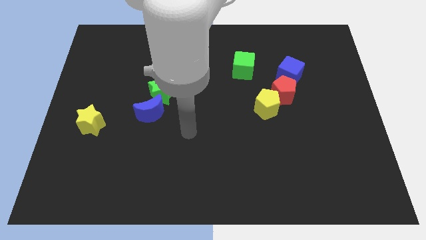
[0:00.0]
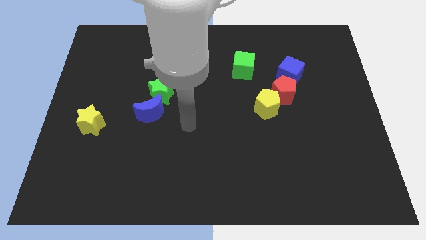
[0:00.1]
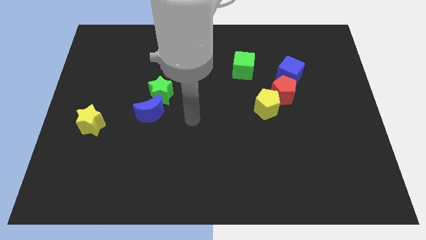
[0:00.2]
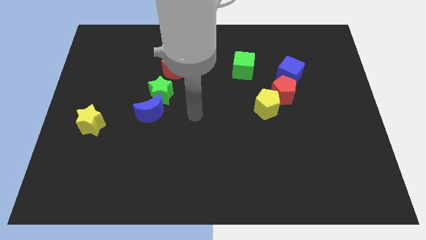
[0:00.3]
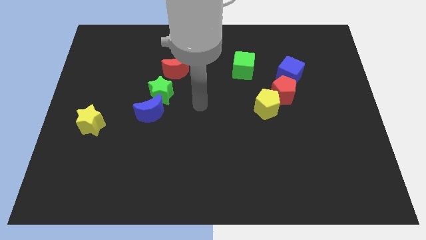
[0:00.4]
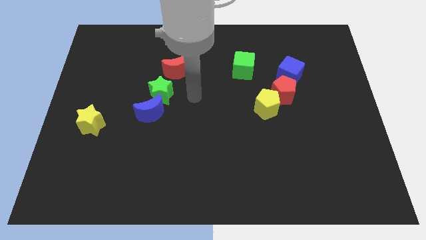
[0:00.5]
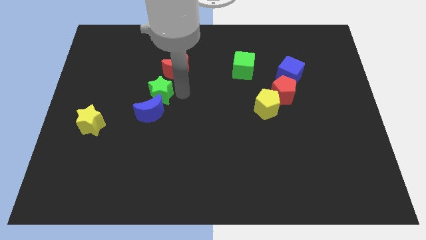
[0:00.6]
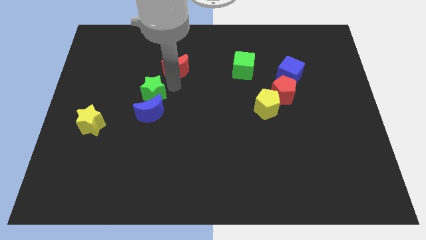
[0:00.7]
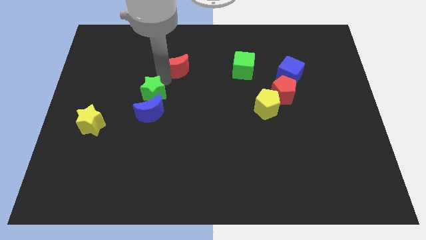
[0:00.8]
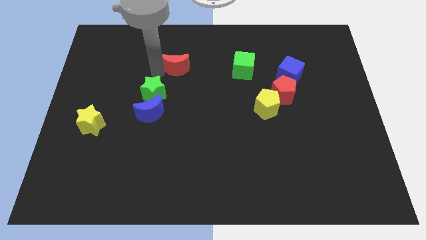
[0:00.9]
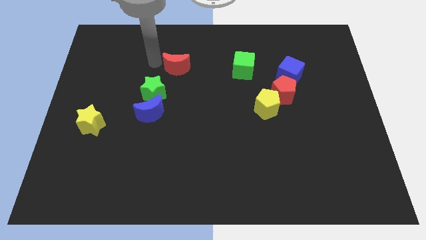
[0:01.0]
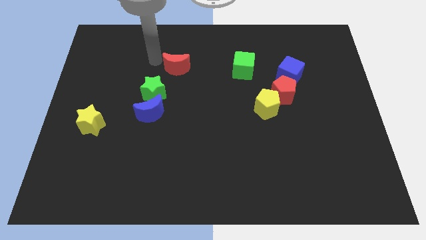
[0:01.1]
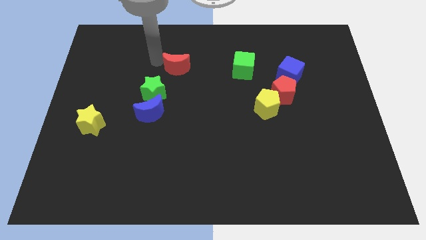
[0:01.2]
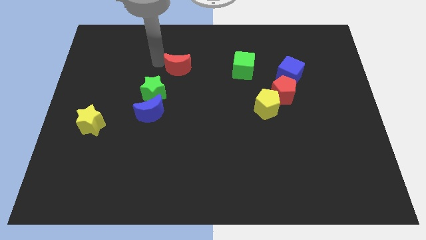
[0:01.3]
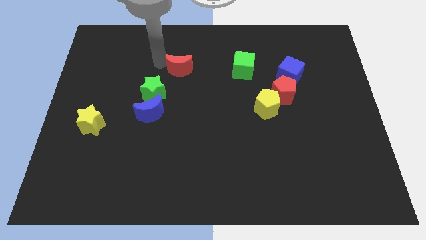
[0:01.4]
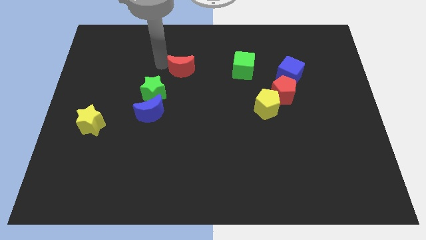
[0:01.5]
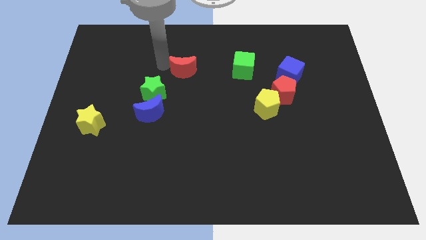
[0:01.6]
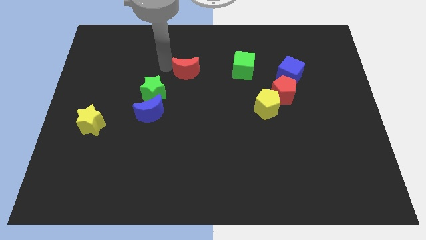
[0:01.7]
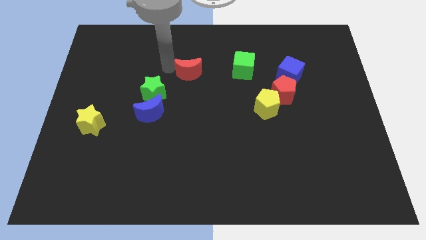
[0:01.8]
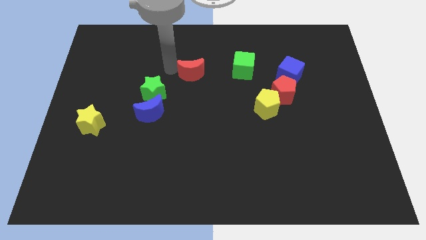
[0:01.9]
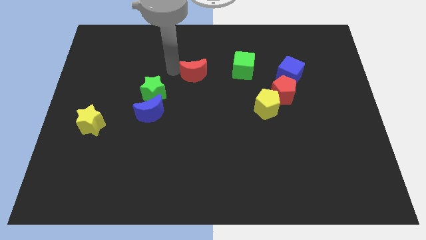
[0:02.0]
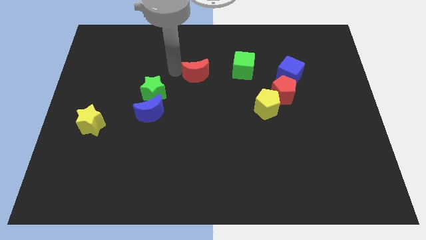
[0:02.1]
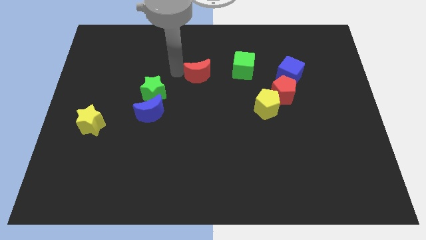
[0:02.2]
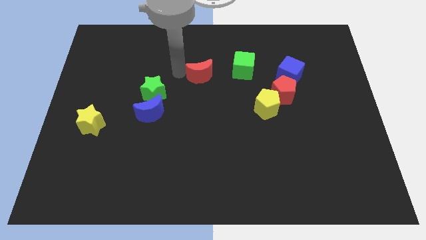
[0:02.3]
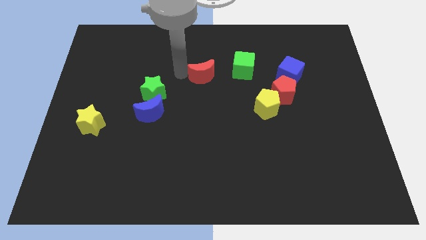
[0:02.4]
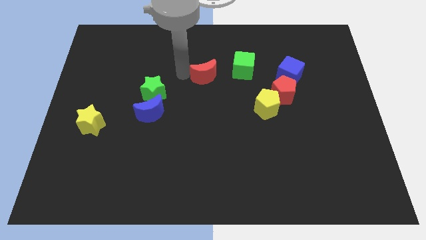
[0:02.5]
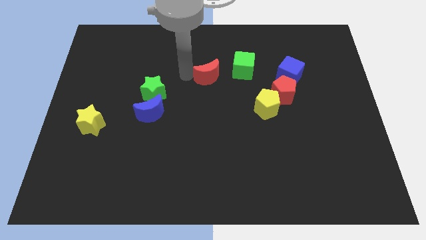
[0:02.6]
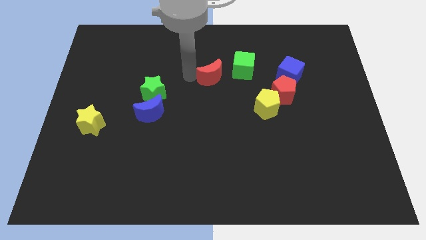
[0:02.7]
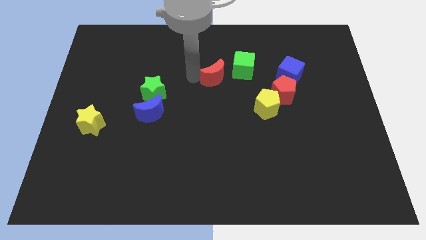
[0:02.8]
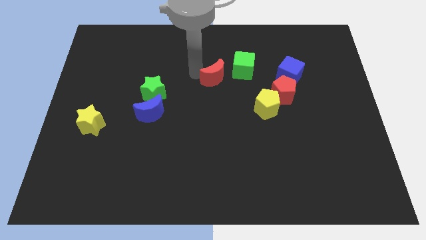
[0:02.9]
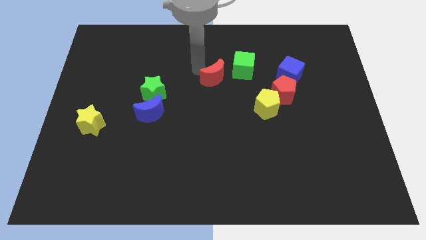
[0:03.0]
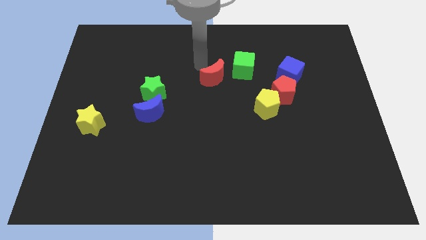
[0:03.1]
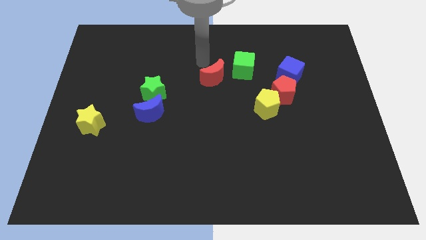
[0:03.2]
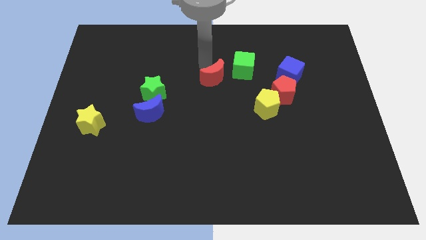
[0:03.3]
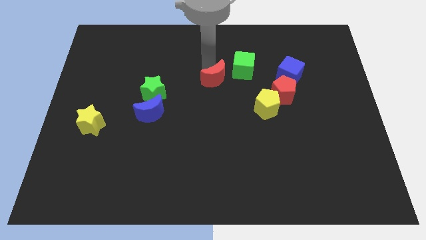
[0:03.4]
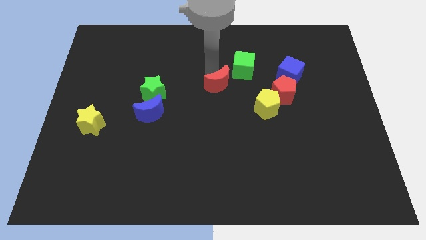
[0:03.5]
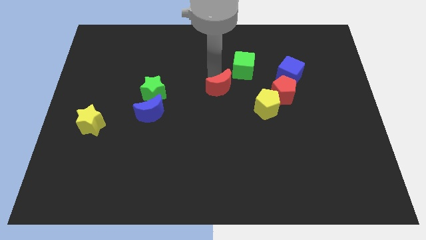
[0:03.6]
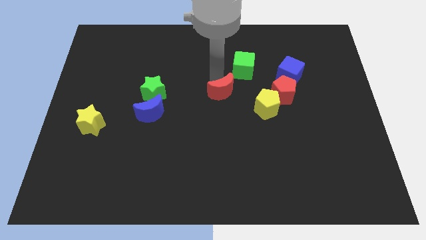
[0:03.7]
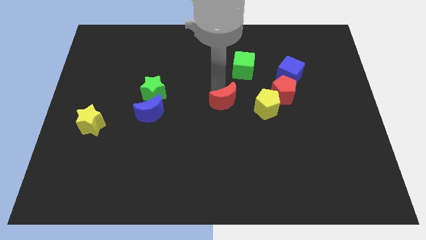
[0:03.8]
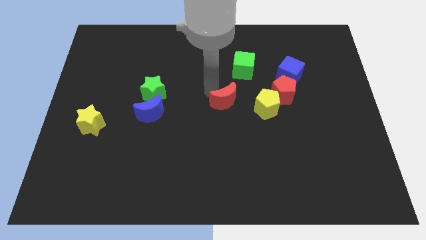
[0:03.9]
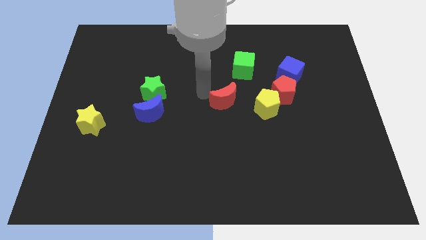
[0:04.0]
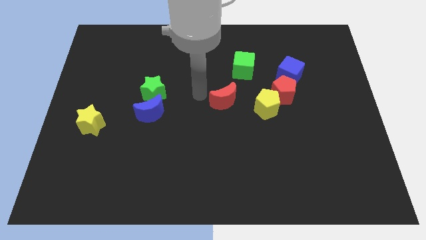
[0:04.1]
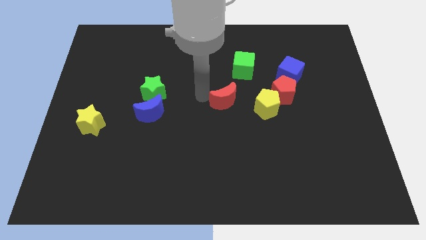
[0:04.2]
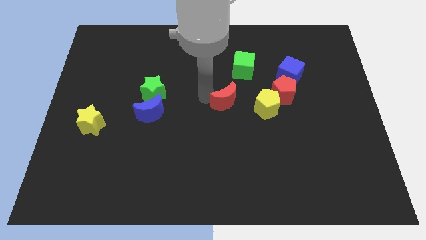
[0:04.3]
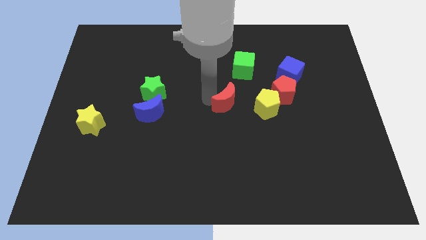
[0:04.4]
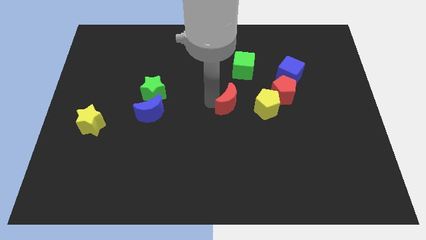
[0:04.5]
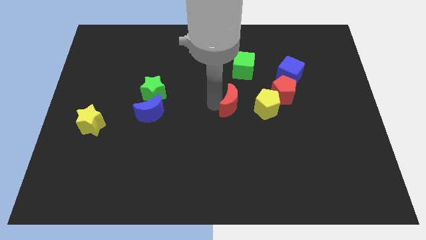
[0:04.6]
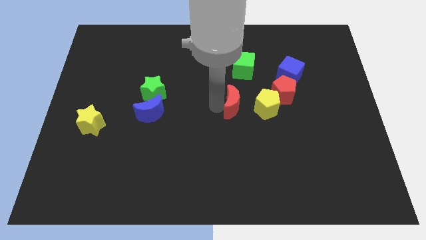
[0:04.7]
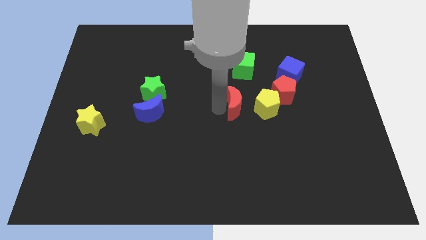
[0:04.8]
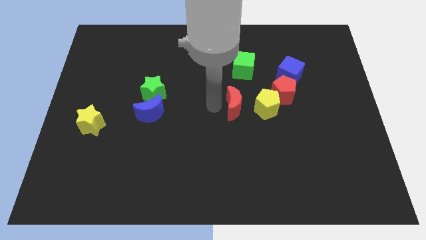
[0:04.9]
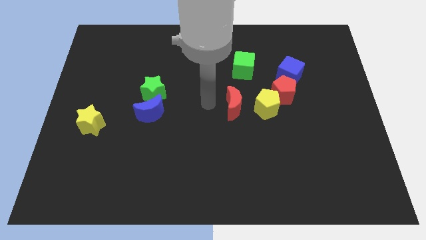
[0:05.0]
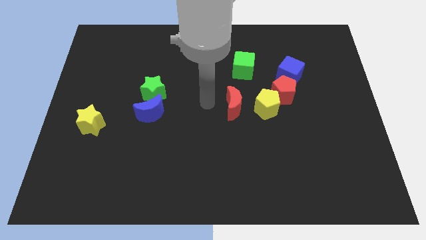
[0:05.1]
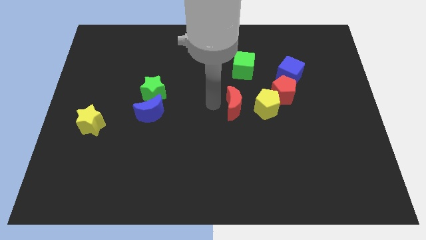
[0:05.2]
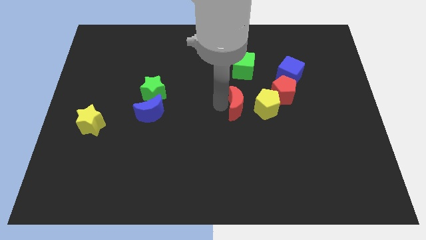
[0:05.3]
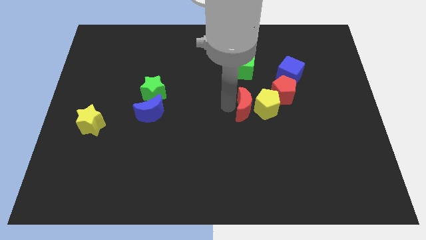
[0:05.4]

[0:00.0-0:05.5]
slide the red moon to the bottom left side of the red pentagon
